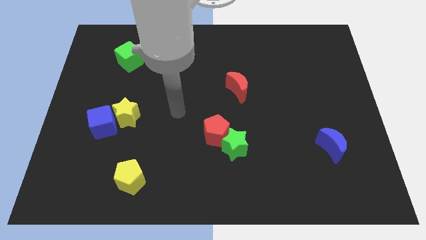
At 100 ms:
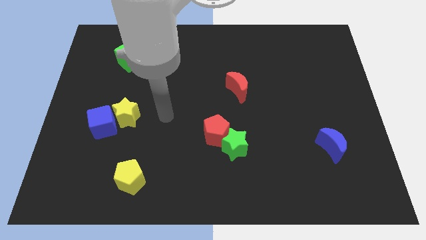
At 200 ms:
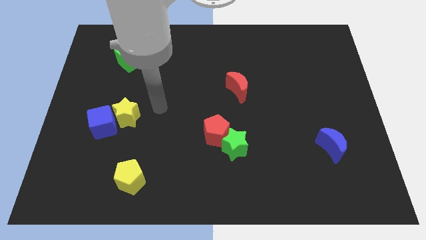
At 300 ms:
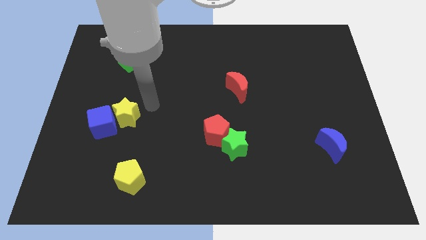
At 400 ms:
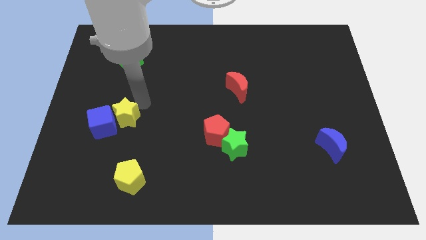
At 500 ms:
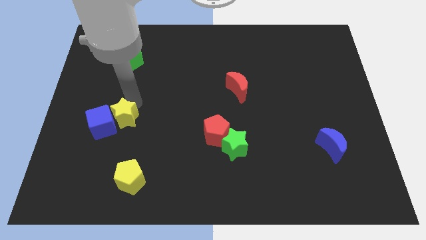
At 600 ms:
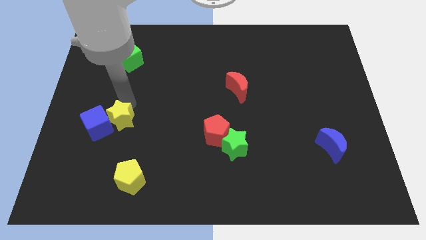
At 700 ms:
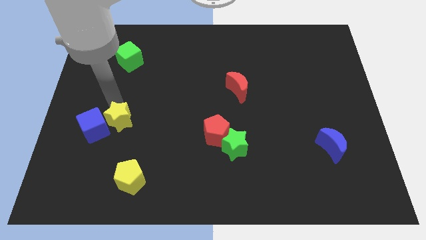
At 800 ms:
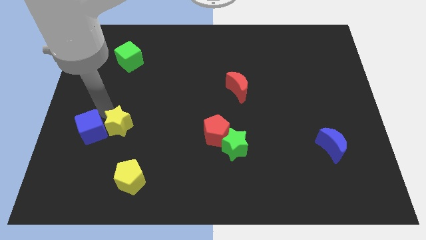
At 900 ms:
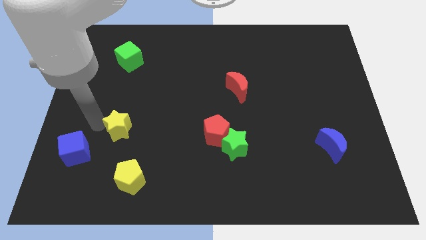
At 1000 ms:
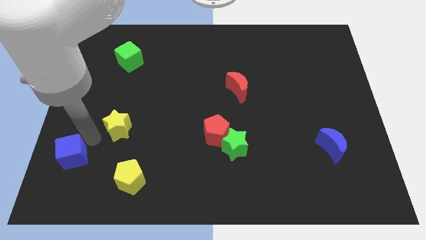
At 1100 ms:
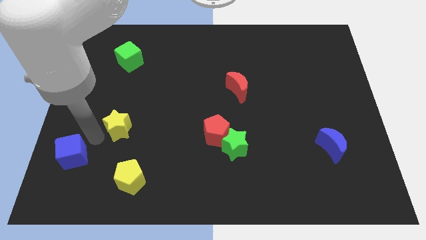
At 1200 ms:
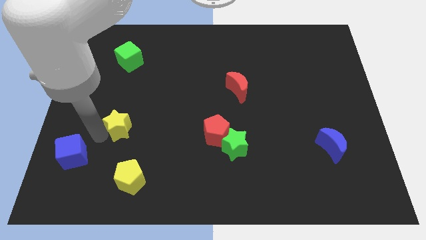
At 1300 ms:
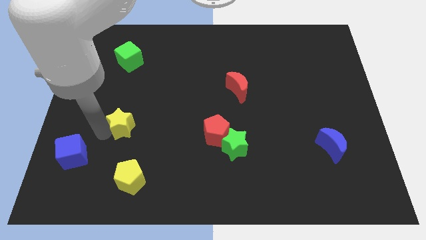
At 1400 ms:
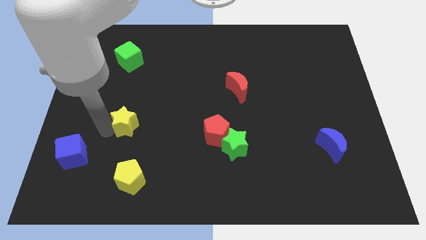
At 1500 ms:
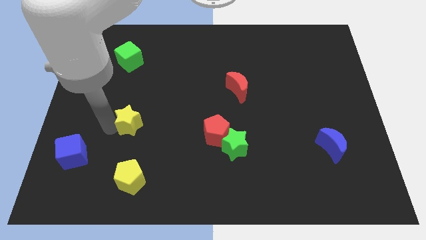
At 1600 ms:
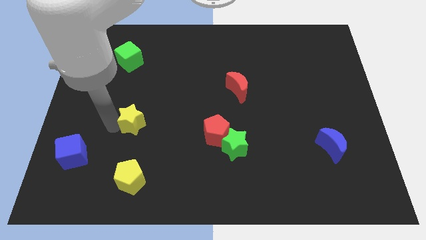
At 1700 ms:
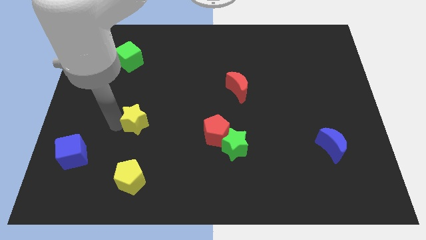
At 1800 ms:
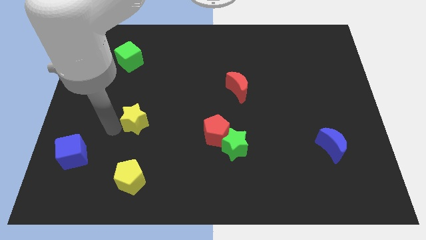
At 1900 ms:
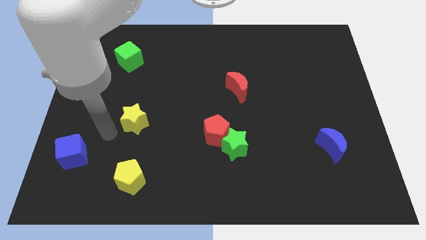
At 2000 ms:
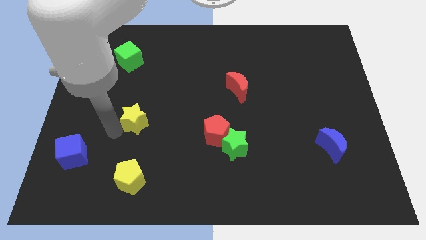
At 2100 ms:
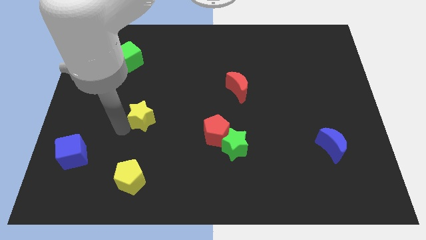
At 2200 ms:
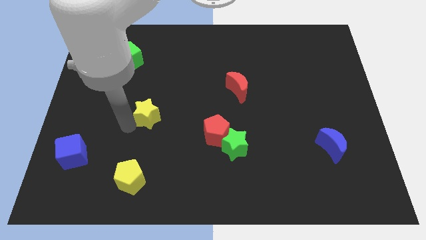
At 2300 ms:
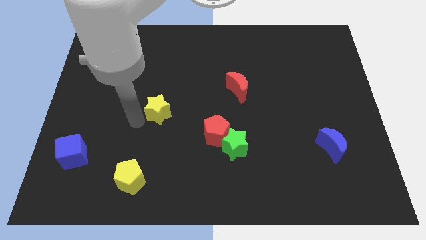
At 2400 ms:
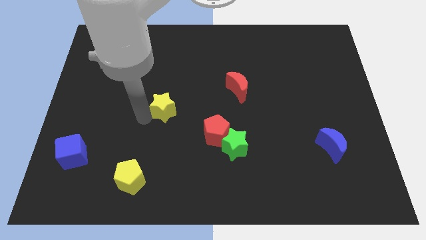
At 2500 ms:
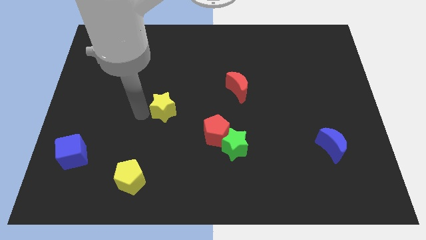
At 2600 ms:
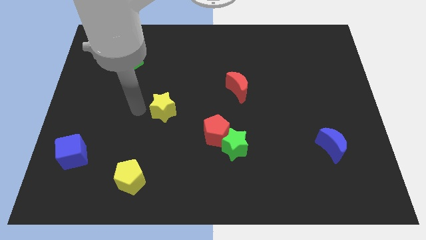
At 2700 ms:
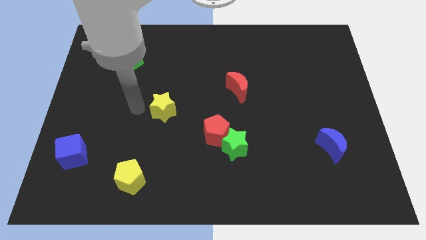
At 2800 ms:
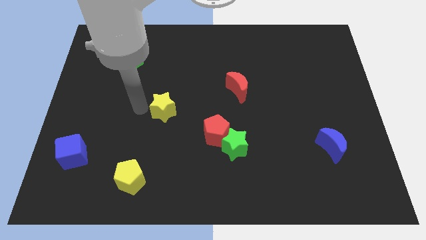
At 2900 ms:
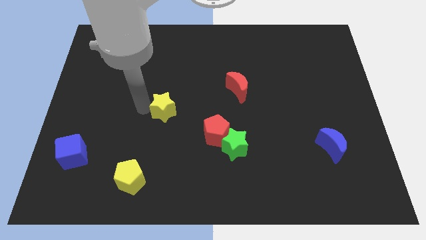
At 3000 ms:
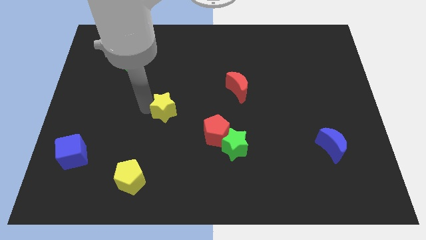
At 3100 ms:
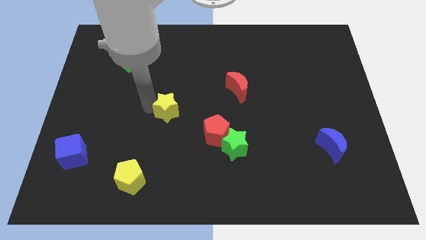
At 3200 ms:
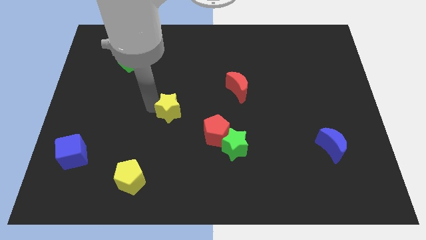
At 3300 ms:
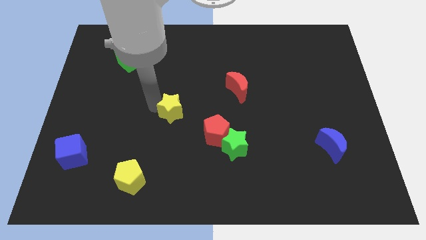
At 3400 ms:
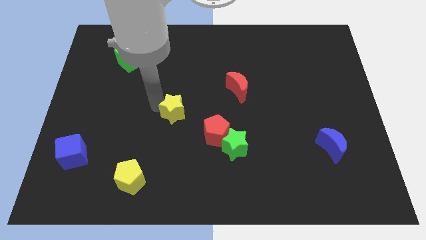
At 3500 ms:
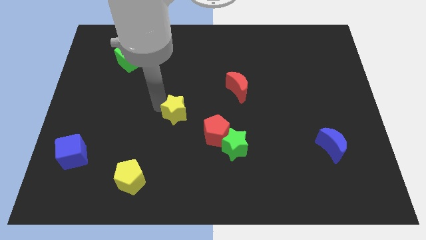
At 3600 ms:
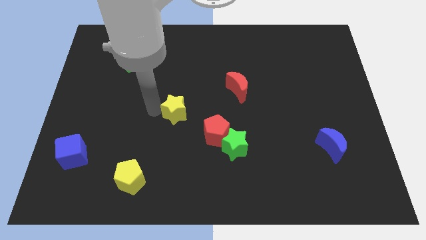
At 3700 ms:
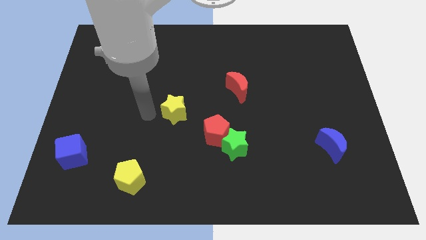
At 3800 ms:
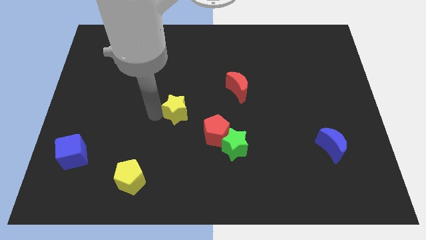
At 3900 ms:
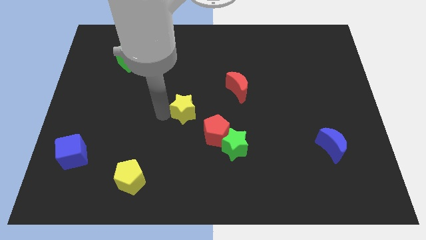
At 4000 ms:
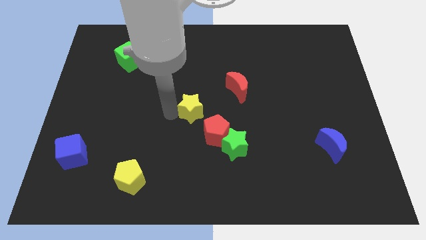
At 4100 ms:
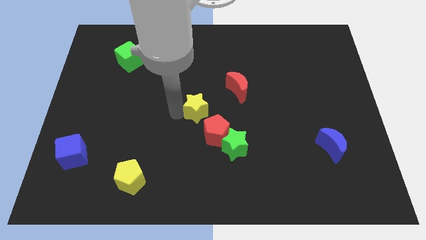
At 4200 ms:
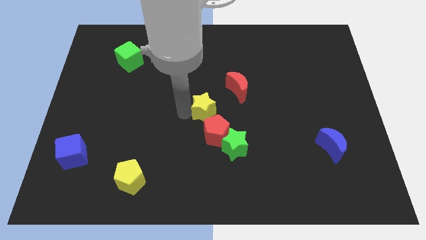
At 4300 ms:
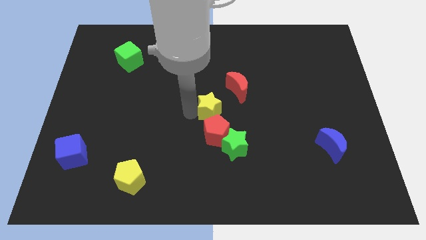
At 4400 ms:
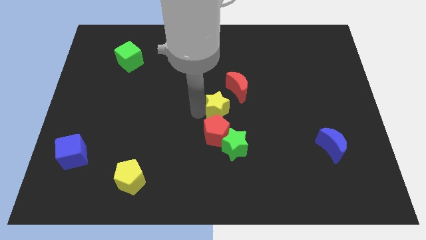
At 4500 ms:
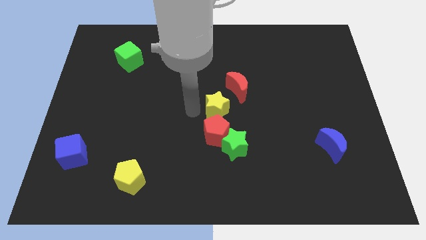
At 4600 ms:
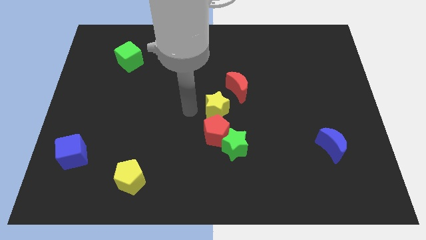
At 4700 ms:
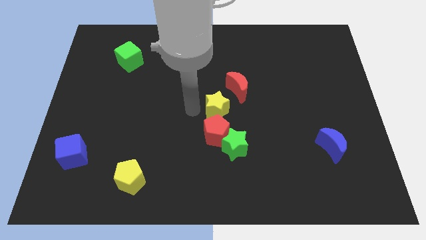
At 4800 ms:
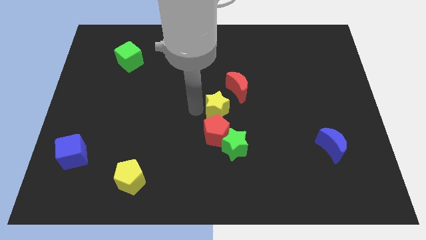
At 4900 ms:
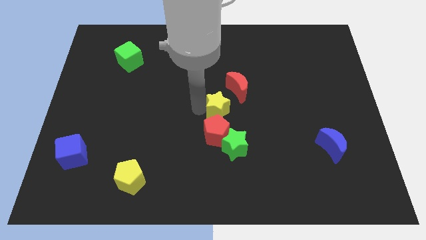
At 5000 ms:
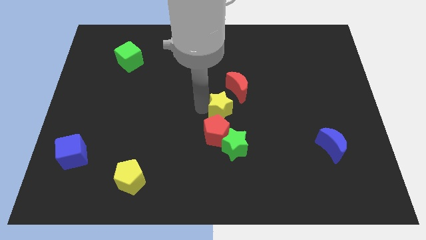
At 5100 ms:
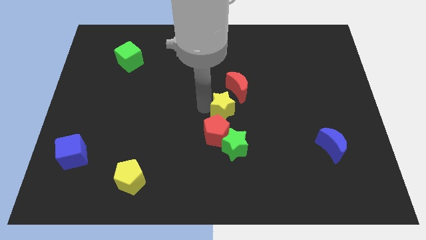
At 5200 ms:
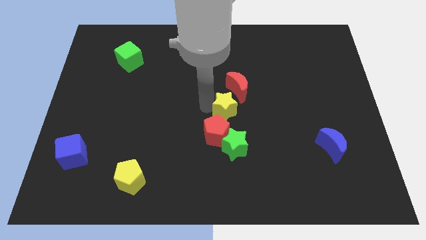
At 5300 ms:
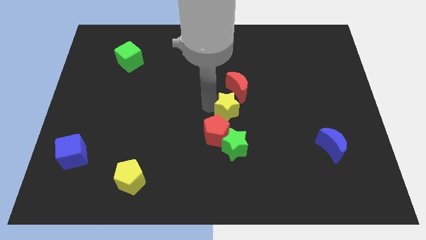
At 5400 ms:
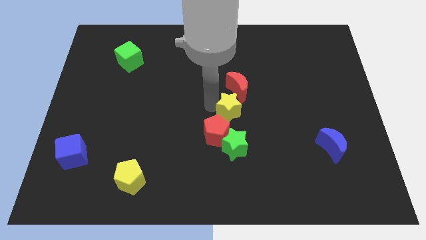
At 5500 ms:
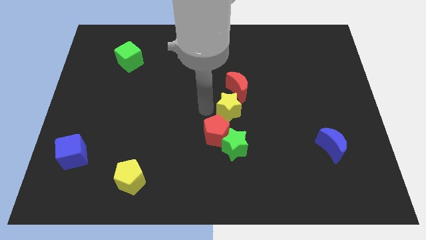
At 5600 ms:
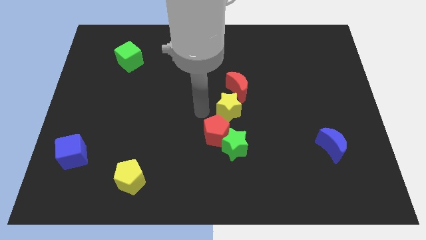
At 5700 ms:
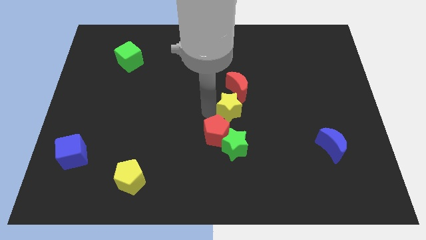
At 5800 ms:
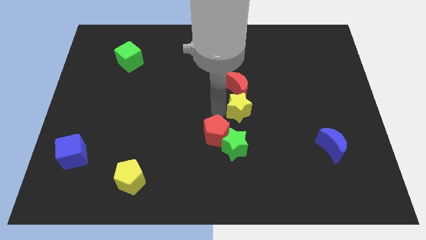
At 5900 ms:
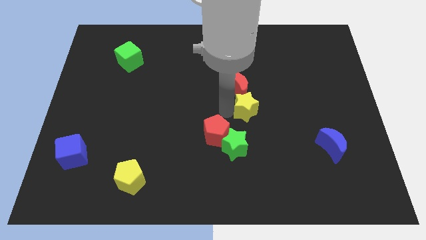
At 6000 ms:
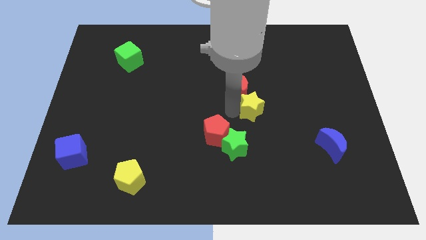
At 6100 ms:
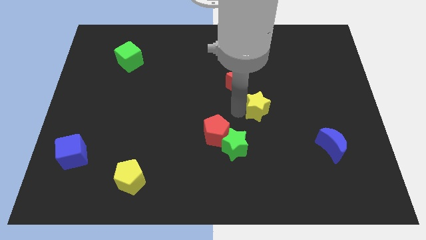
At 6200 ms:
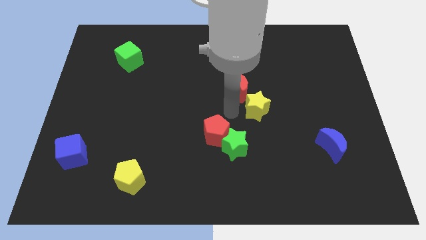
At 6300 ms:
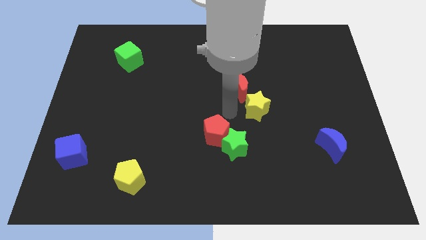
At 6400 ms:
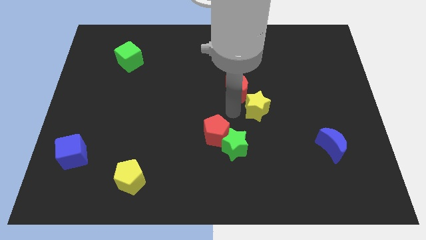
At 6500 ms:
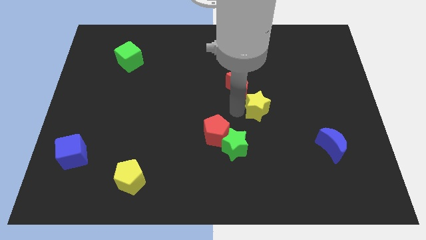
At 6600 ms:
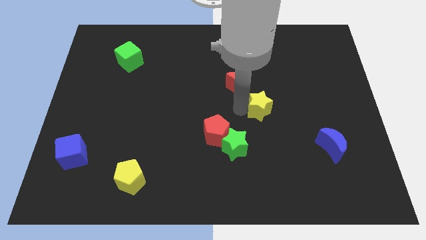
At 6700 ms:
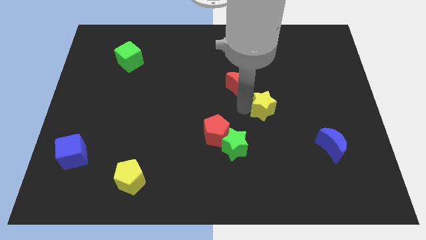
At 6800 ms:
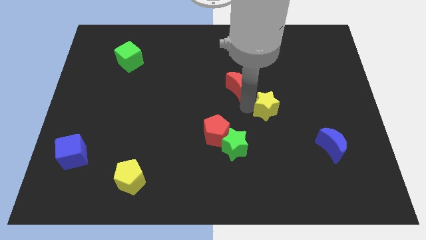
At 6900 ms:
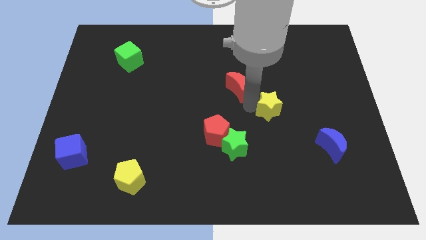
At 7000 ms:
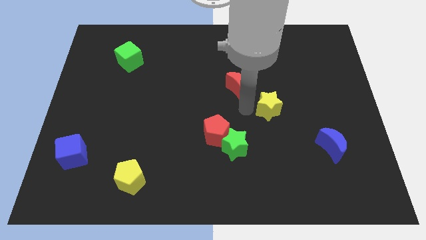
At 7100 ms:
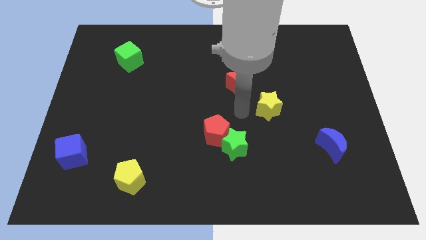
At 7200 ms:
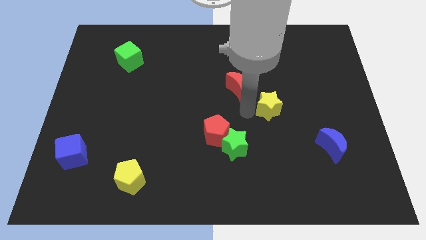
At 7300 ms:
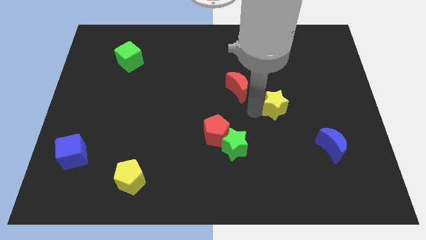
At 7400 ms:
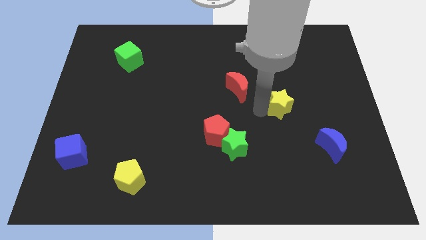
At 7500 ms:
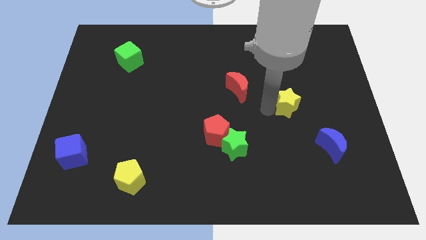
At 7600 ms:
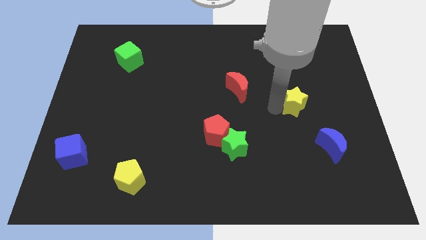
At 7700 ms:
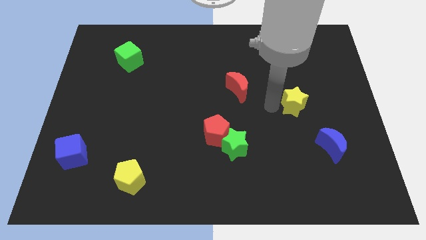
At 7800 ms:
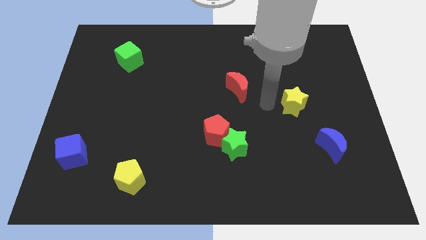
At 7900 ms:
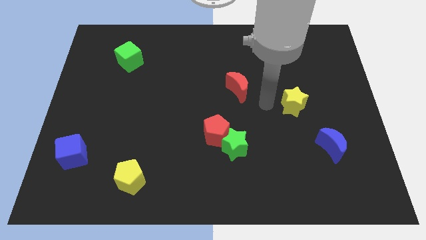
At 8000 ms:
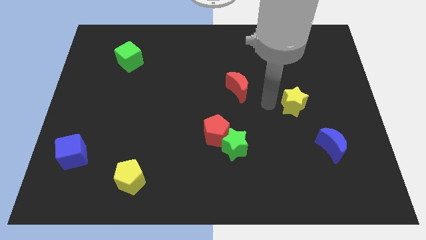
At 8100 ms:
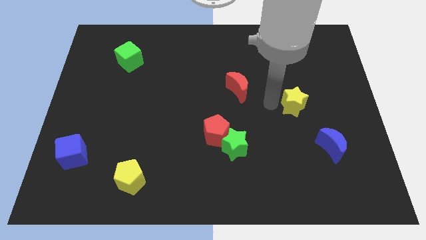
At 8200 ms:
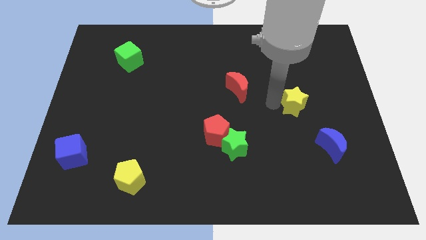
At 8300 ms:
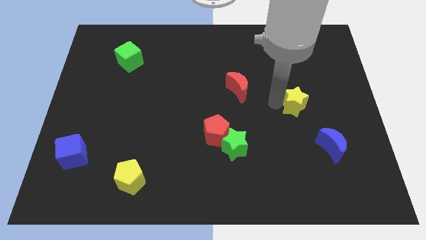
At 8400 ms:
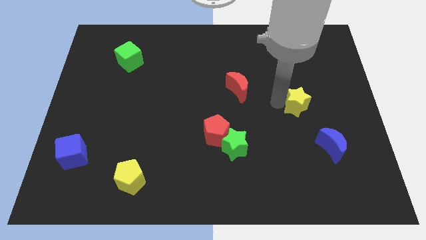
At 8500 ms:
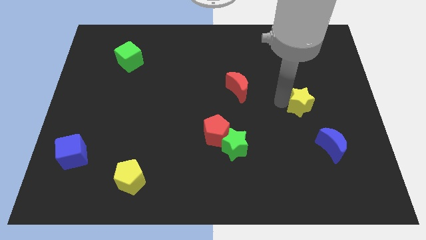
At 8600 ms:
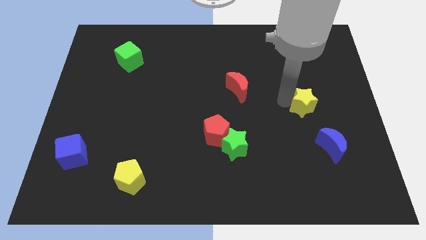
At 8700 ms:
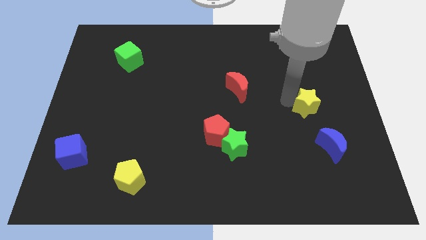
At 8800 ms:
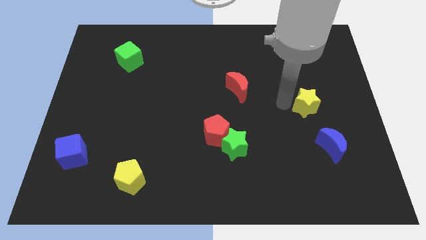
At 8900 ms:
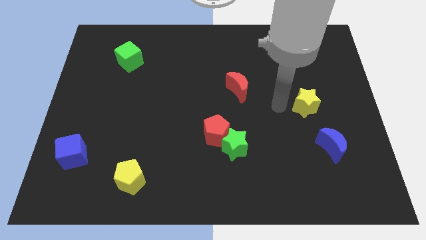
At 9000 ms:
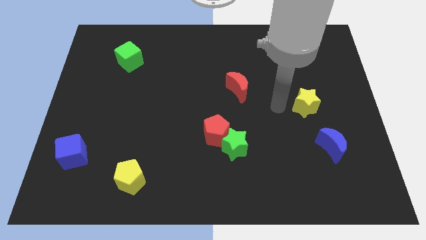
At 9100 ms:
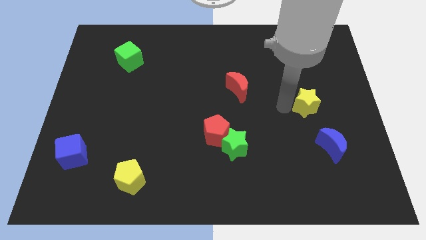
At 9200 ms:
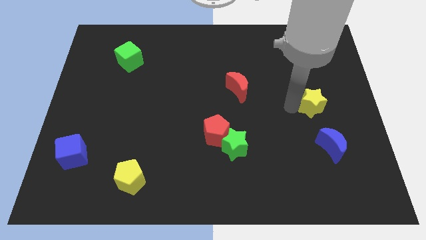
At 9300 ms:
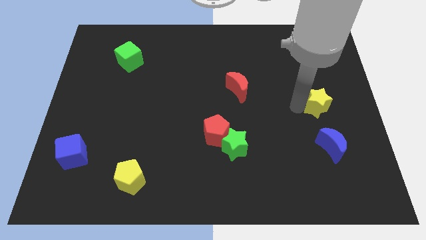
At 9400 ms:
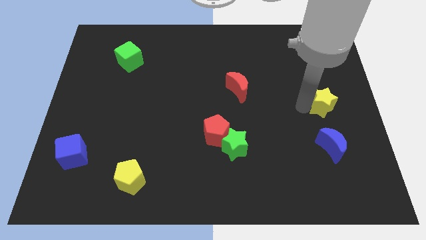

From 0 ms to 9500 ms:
put the yellow star to the center right
